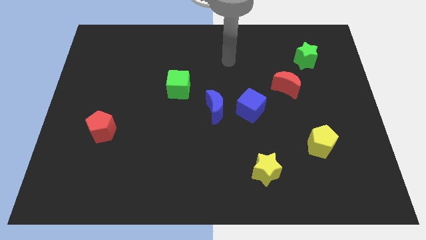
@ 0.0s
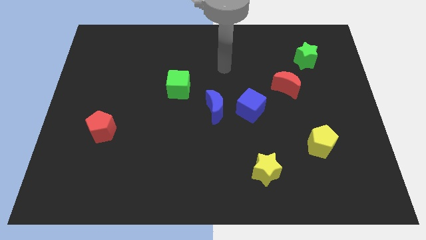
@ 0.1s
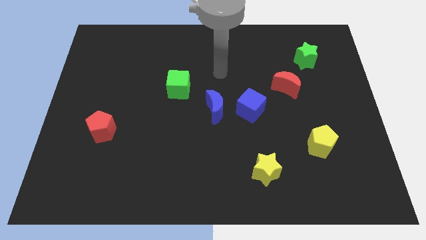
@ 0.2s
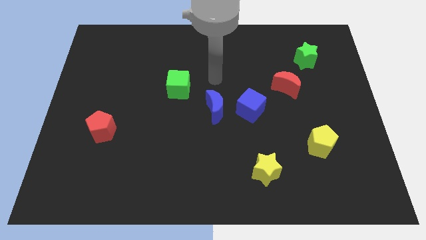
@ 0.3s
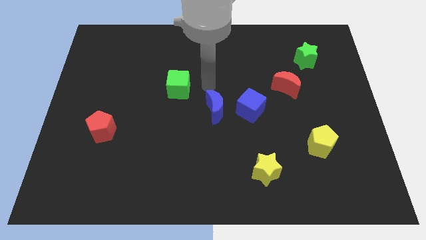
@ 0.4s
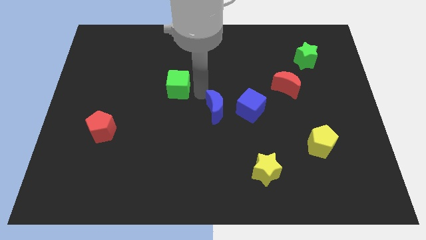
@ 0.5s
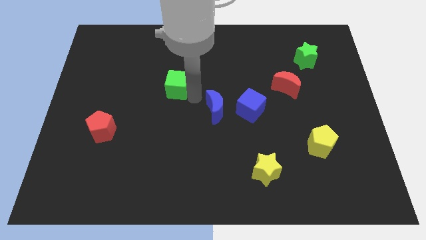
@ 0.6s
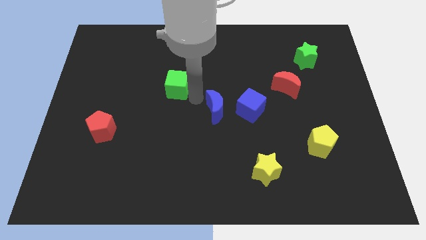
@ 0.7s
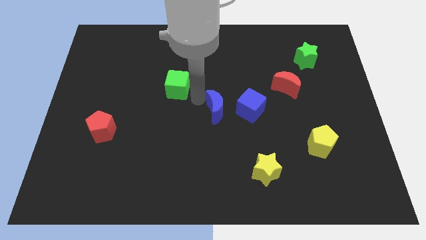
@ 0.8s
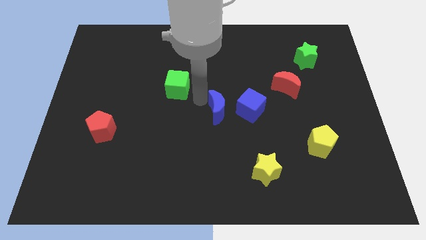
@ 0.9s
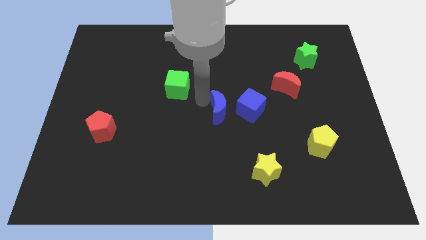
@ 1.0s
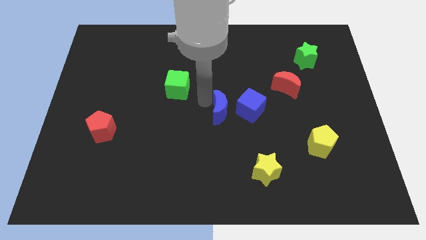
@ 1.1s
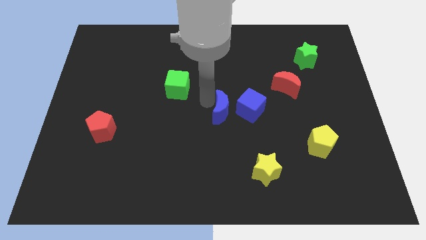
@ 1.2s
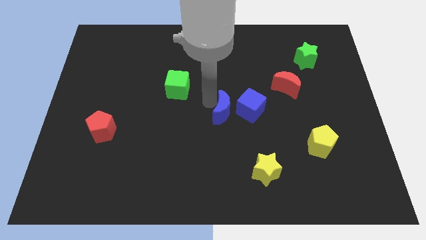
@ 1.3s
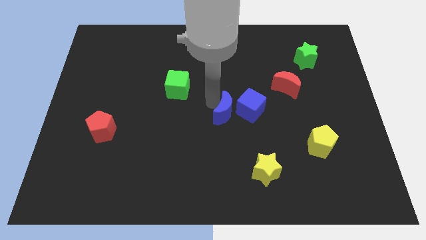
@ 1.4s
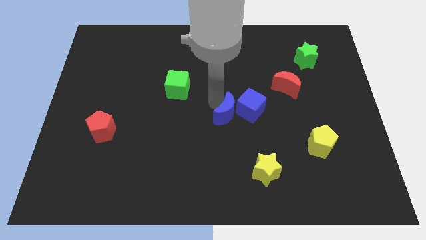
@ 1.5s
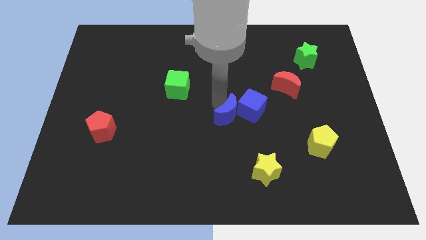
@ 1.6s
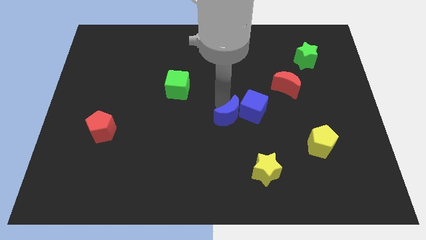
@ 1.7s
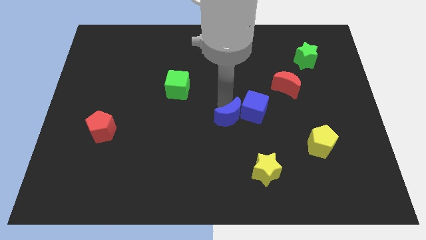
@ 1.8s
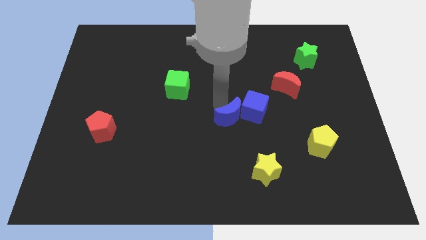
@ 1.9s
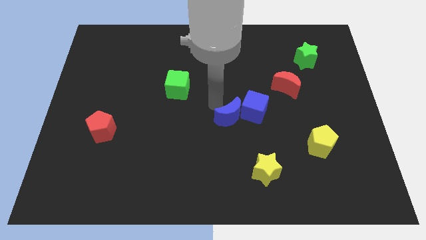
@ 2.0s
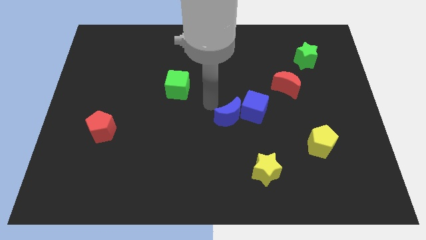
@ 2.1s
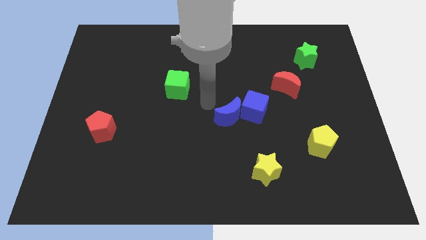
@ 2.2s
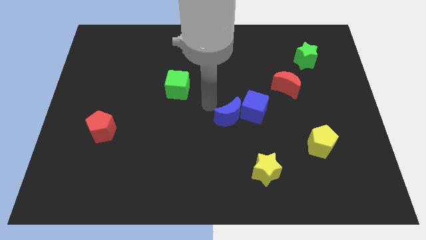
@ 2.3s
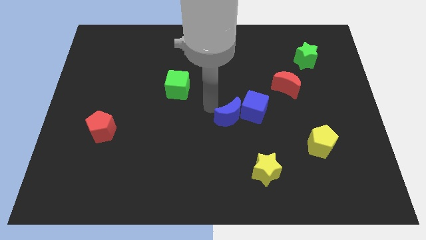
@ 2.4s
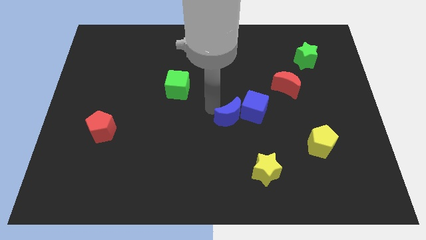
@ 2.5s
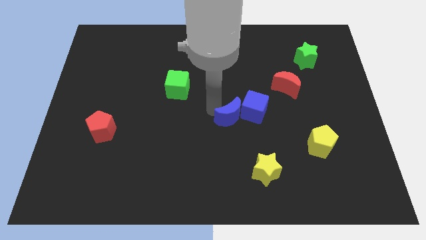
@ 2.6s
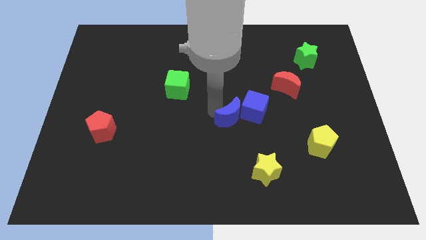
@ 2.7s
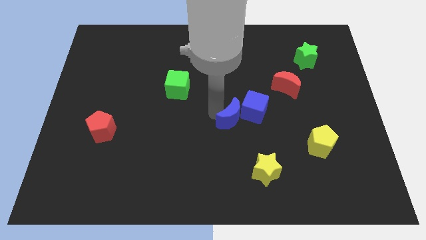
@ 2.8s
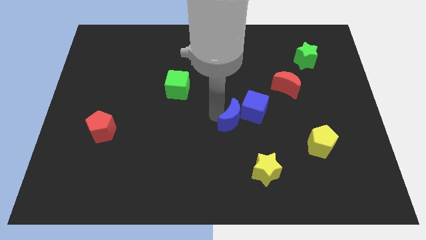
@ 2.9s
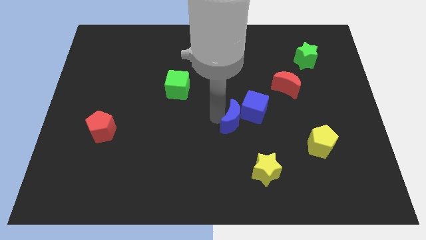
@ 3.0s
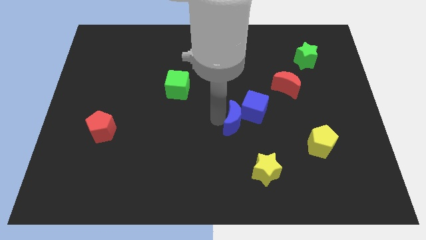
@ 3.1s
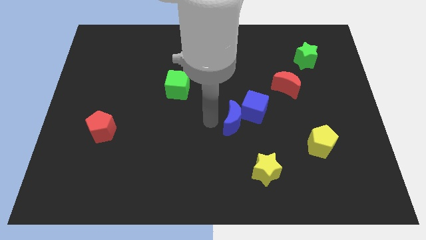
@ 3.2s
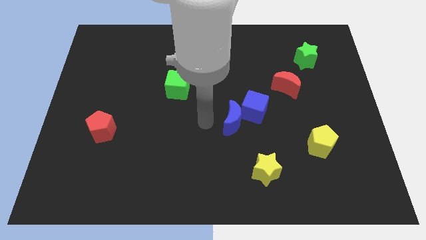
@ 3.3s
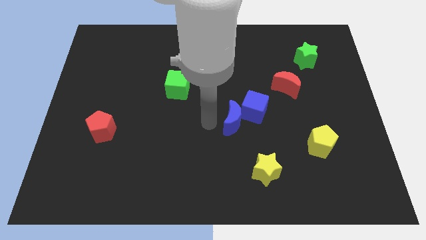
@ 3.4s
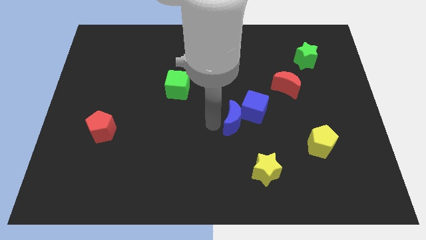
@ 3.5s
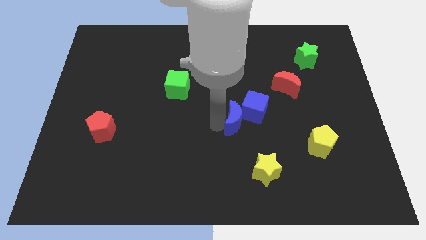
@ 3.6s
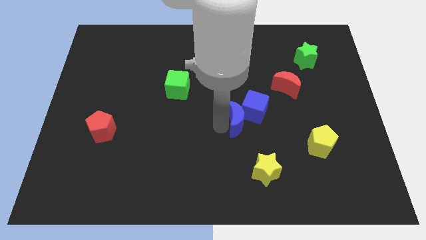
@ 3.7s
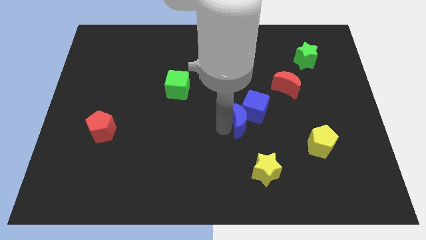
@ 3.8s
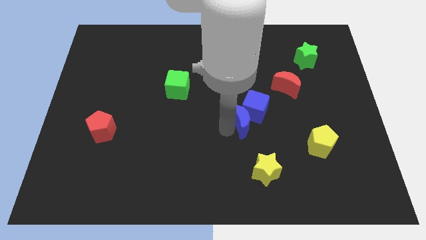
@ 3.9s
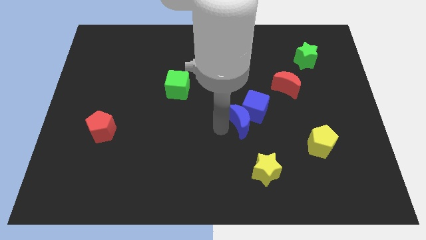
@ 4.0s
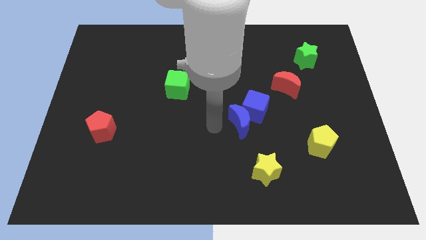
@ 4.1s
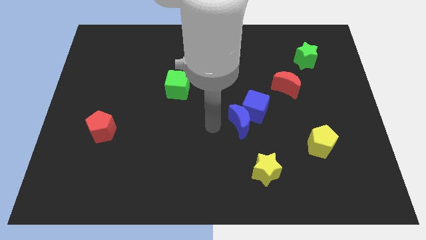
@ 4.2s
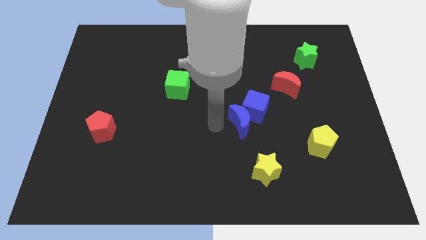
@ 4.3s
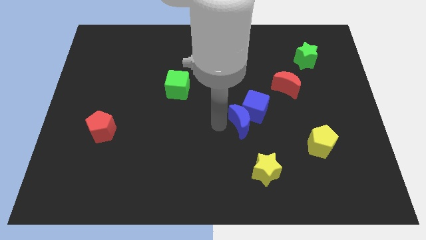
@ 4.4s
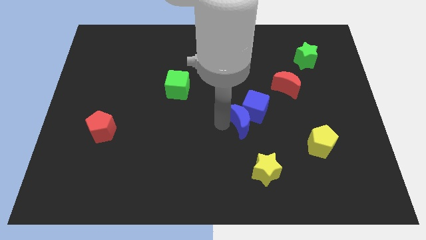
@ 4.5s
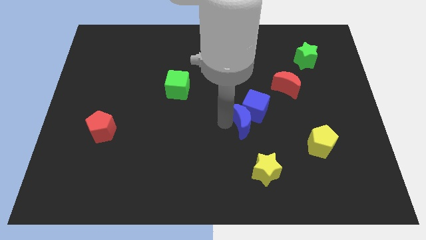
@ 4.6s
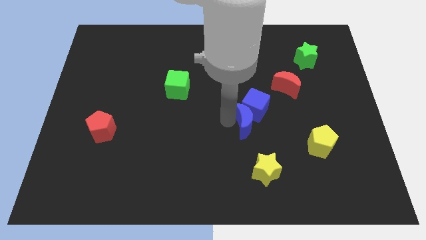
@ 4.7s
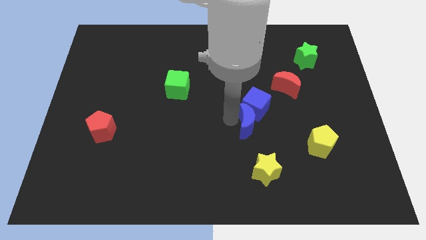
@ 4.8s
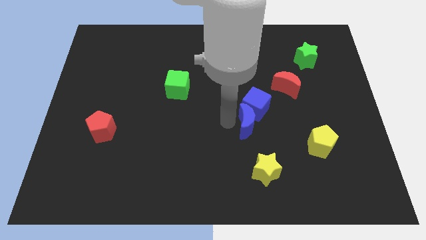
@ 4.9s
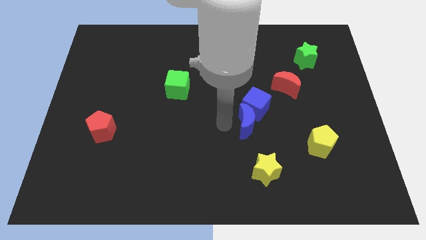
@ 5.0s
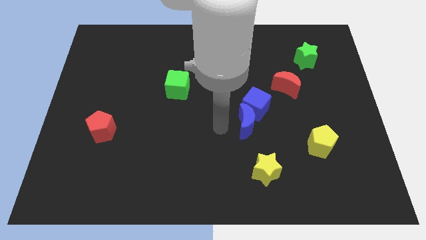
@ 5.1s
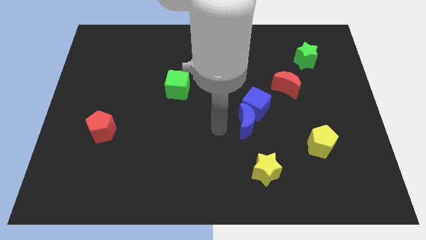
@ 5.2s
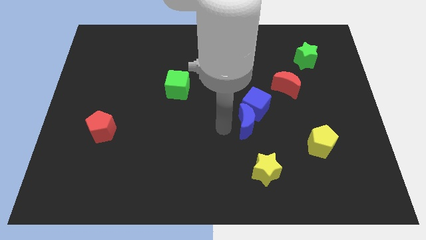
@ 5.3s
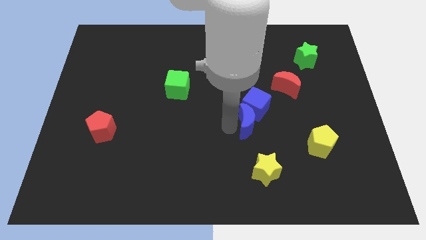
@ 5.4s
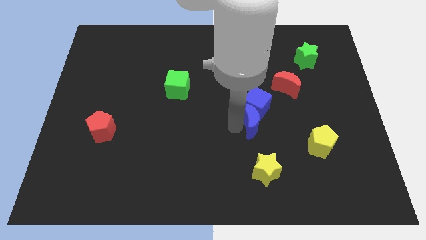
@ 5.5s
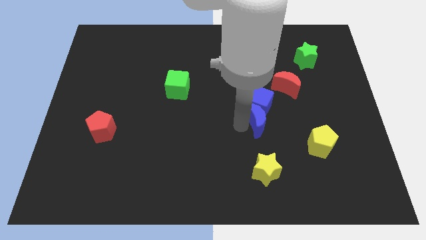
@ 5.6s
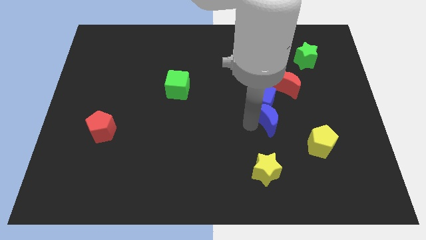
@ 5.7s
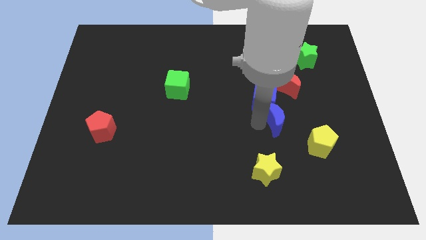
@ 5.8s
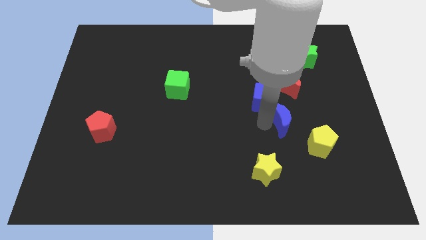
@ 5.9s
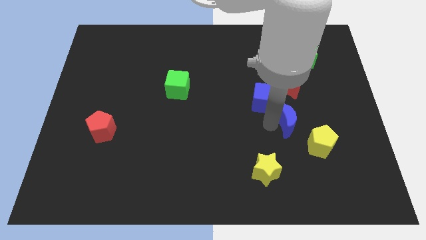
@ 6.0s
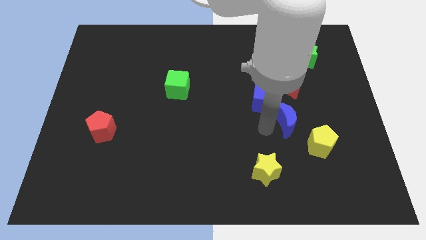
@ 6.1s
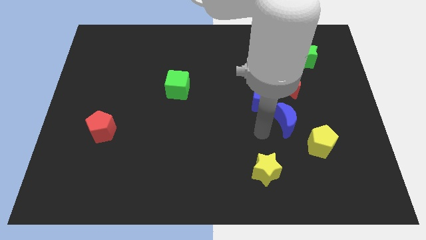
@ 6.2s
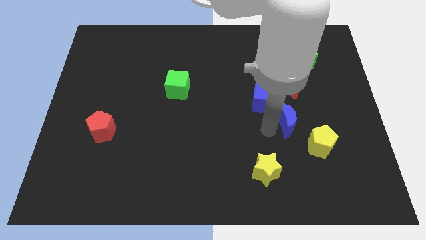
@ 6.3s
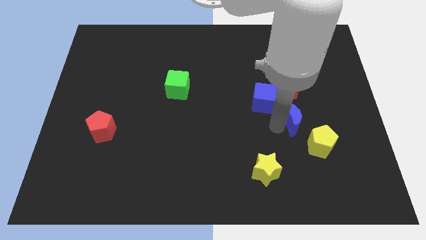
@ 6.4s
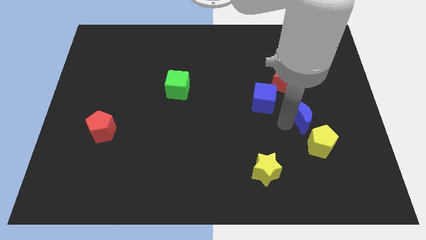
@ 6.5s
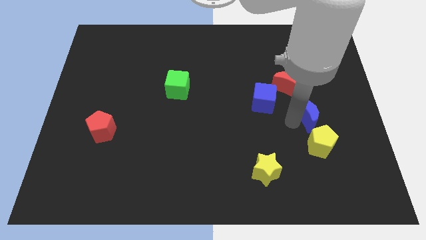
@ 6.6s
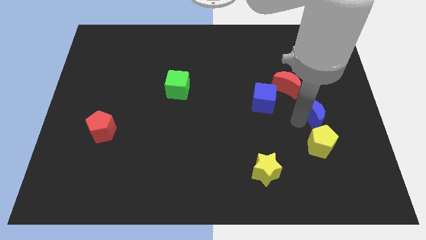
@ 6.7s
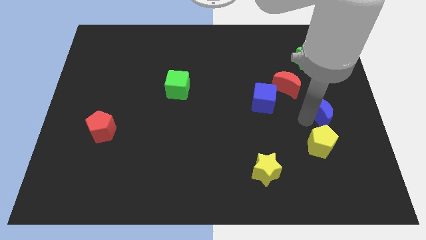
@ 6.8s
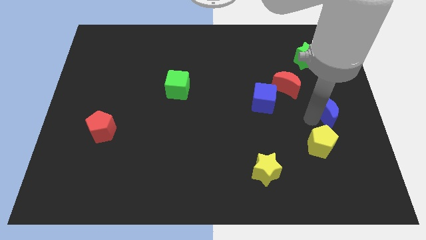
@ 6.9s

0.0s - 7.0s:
push the blue moon to the right side
